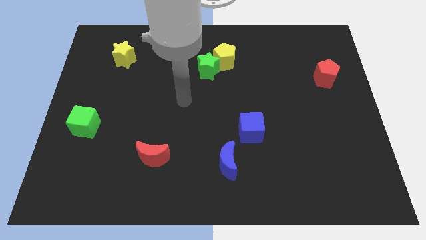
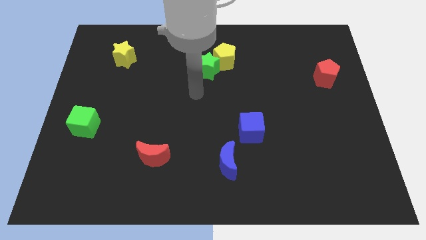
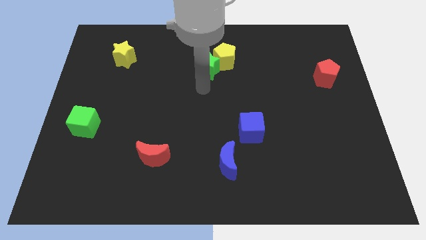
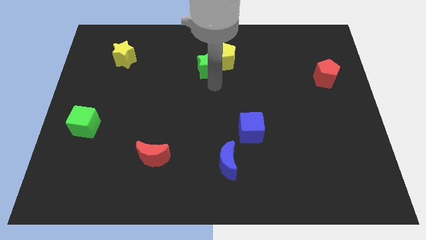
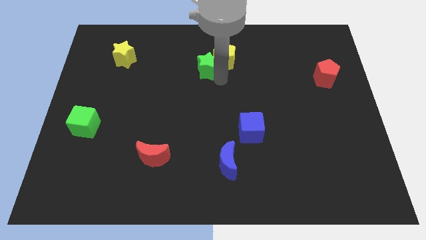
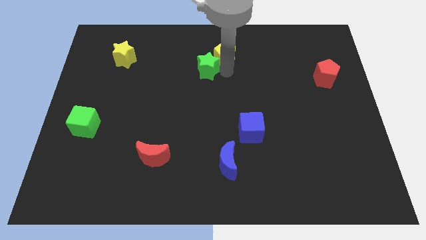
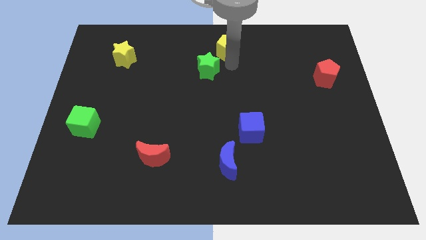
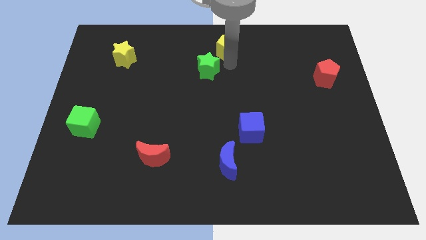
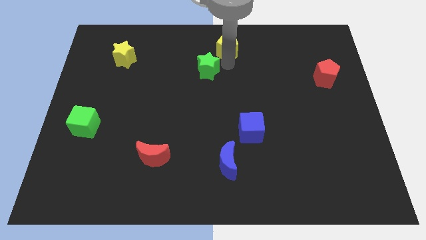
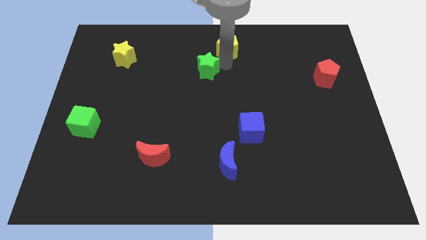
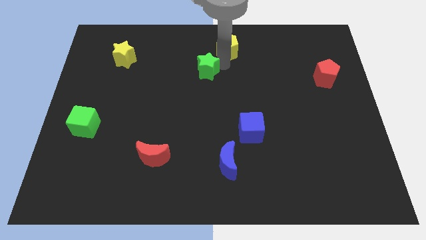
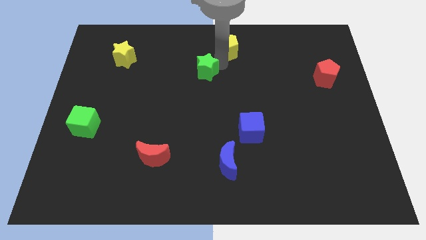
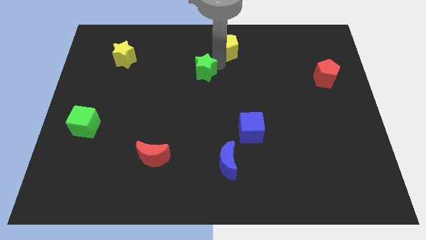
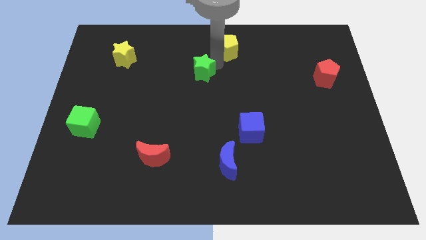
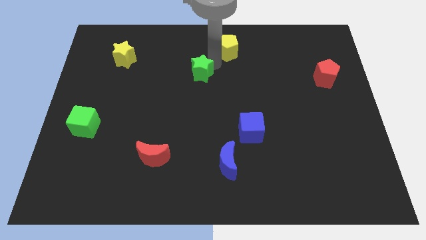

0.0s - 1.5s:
pull the green star apart from the yellow pentagon

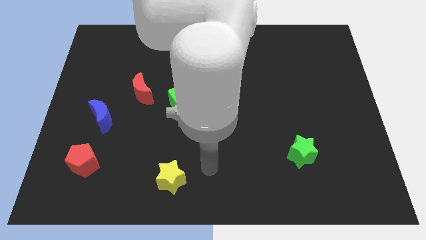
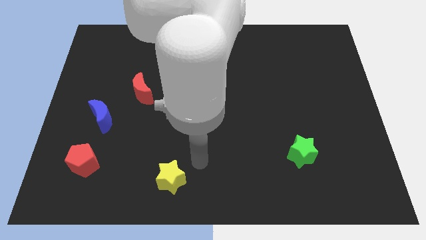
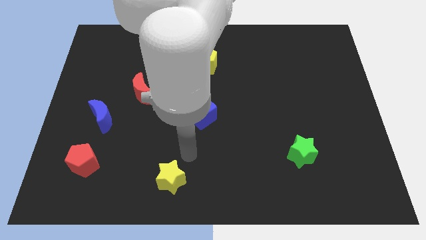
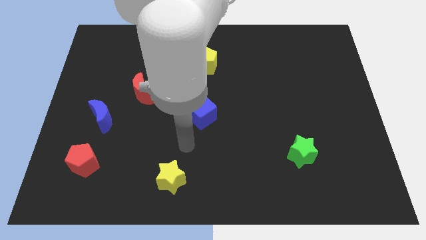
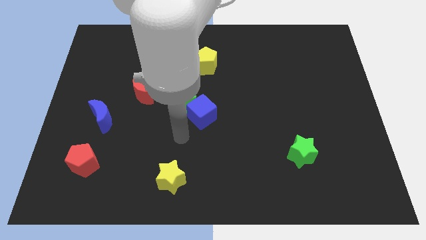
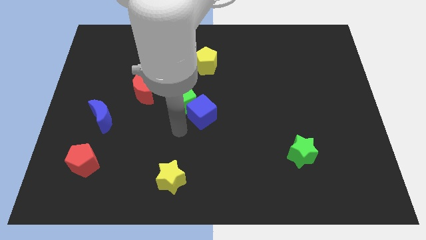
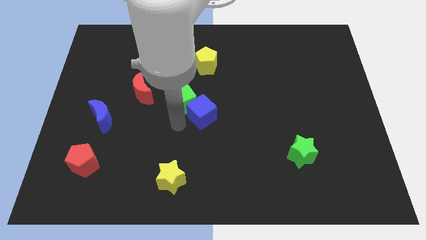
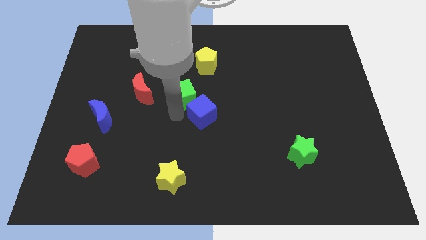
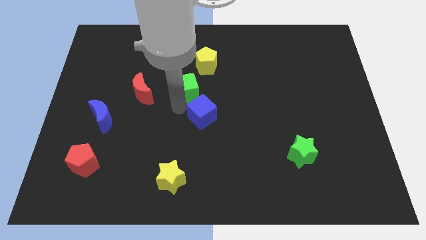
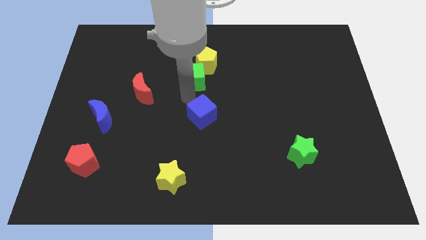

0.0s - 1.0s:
pull the blue cube apart from the green cube

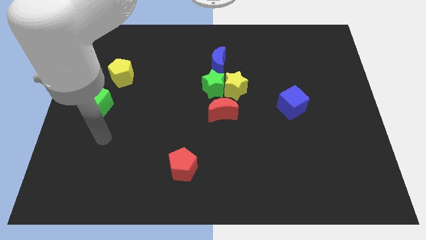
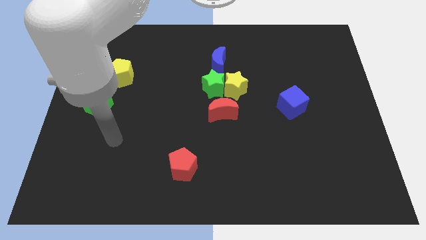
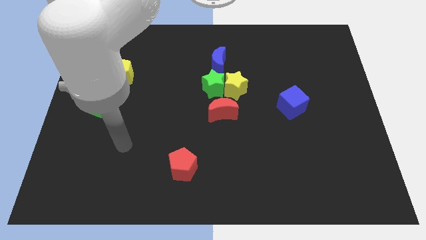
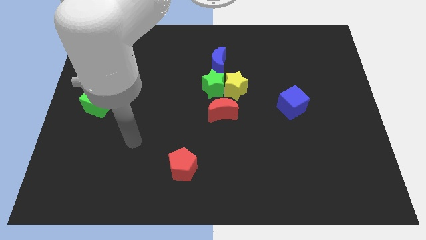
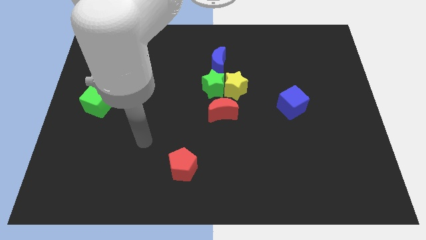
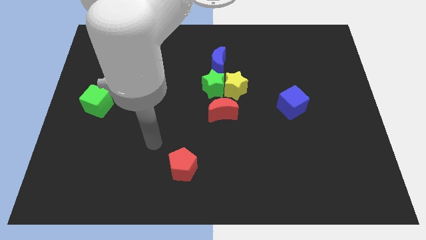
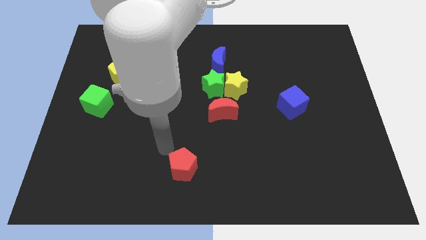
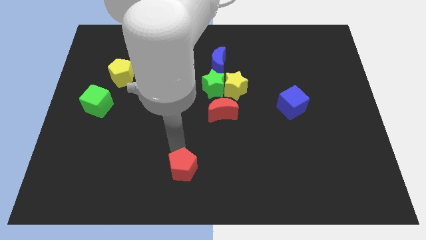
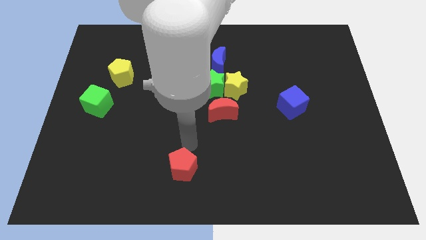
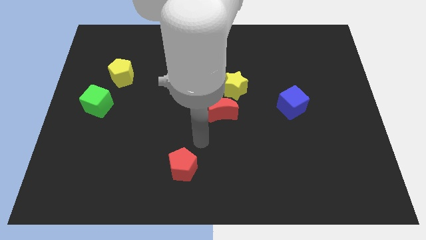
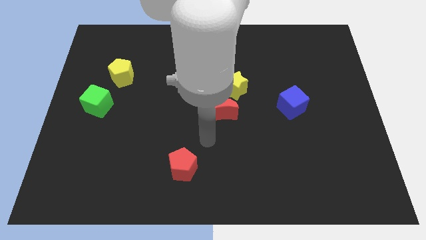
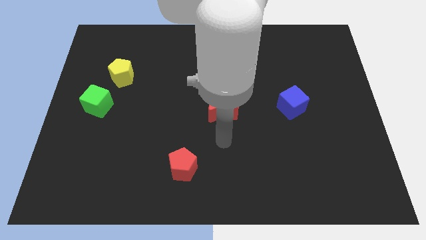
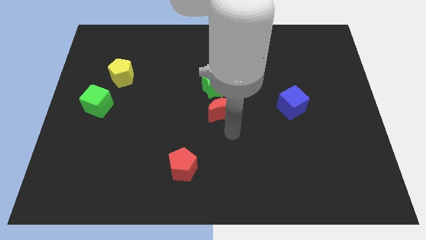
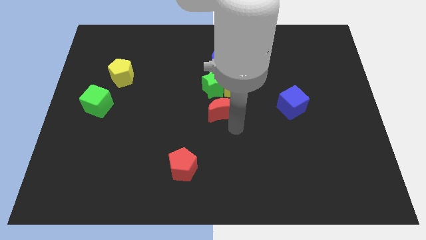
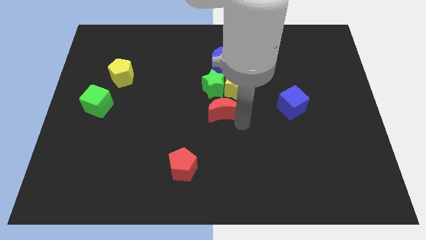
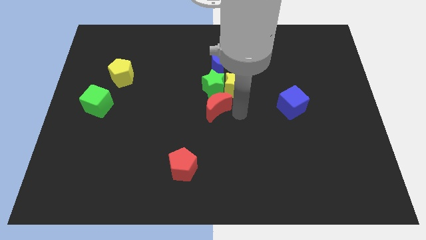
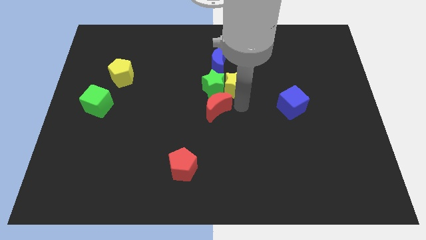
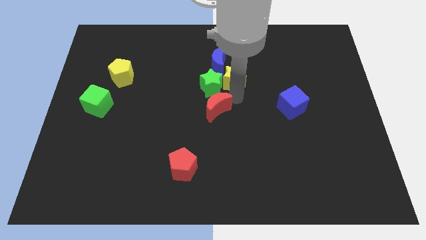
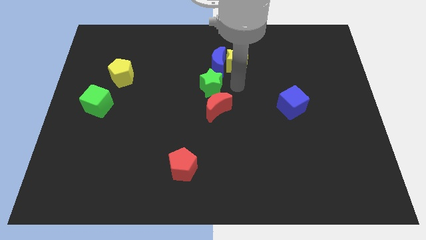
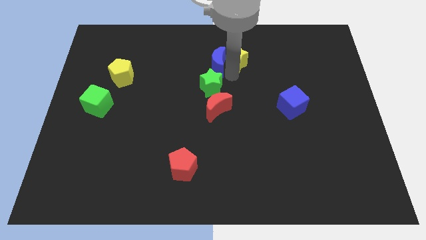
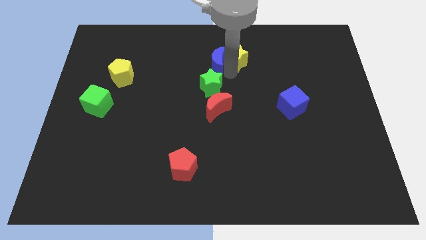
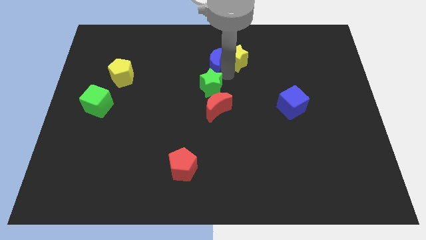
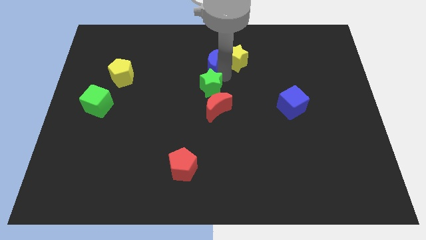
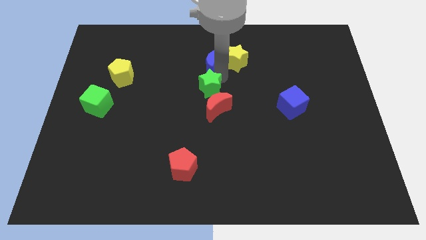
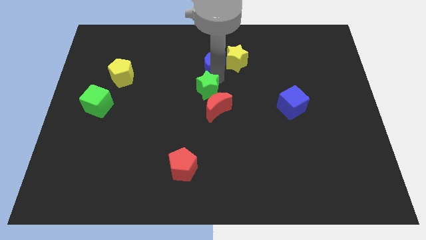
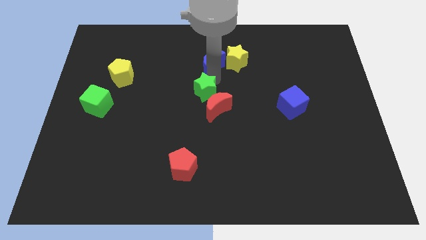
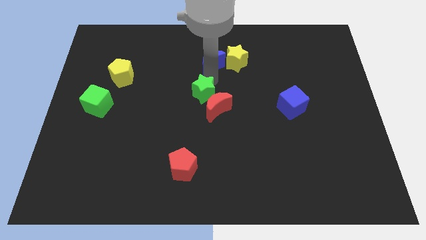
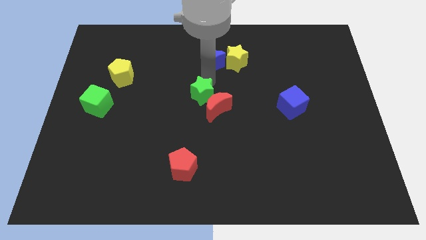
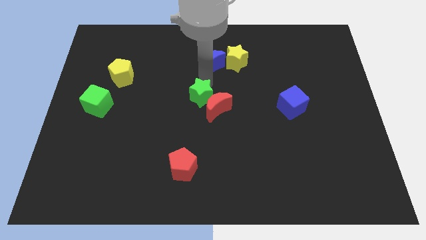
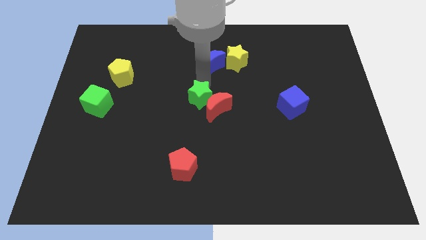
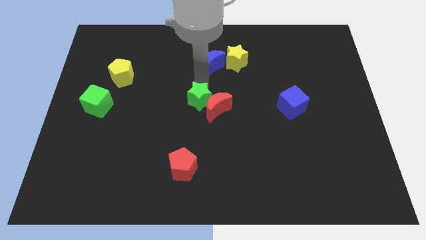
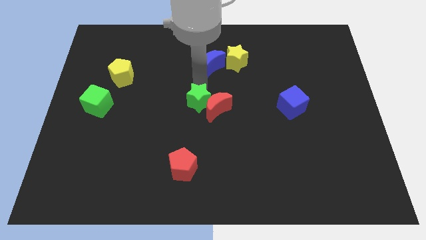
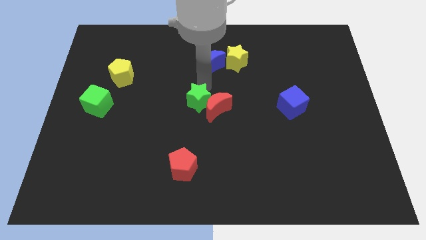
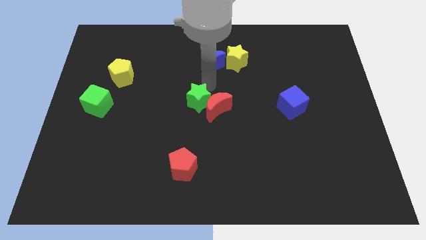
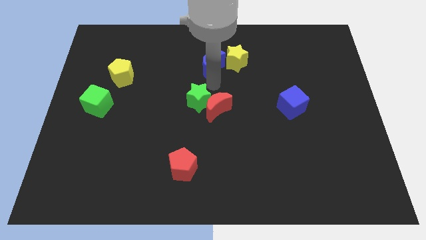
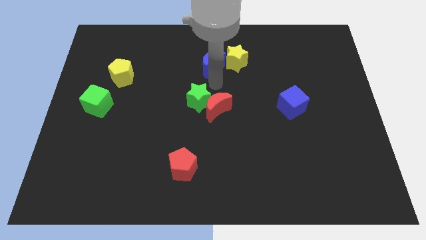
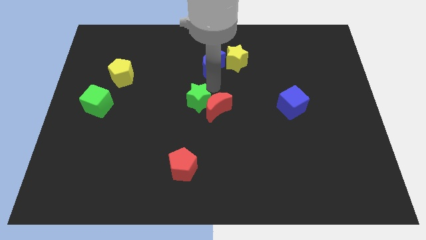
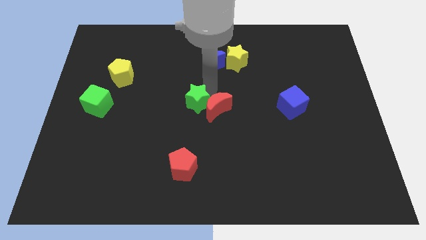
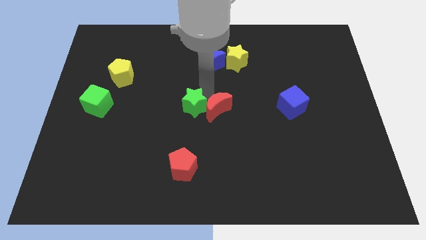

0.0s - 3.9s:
move the green star away from the yellow star, blue moon, and red moon

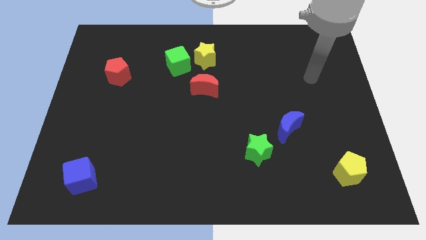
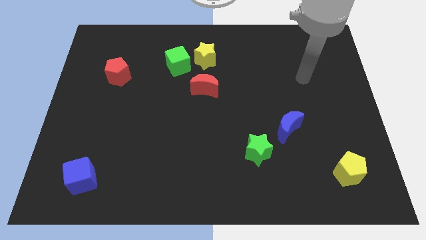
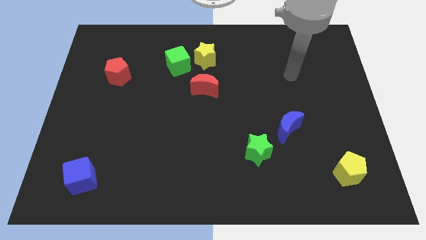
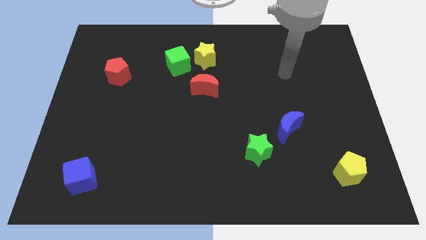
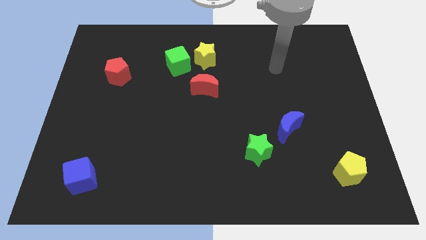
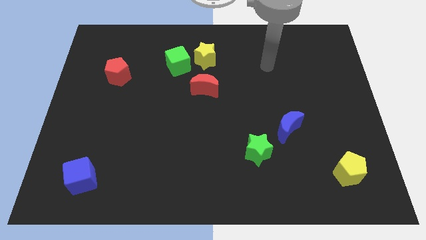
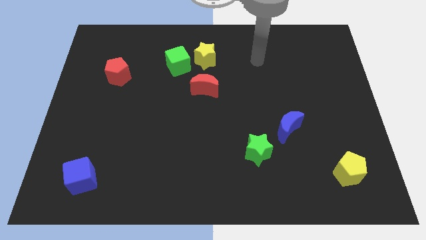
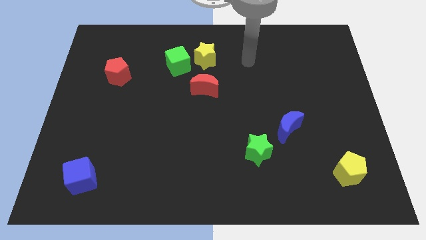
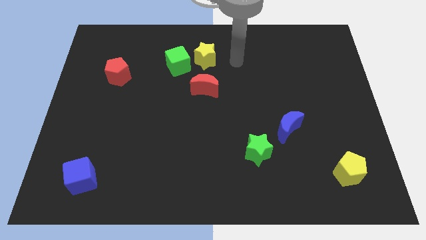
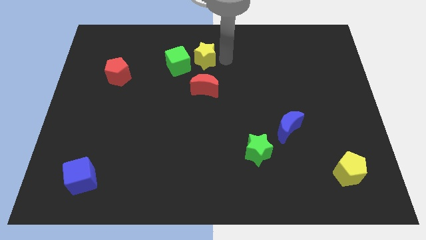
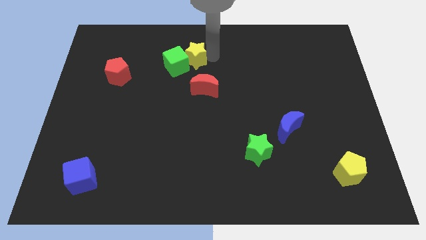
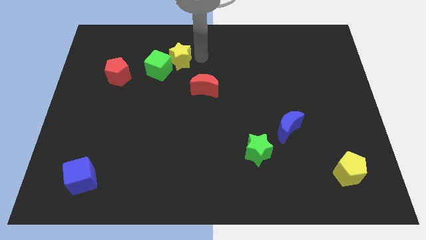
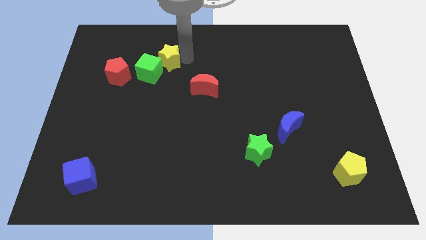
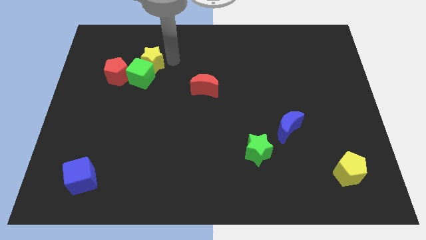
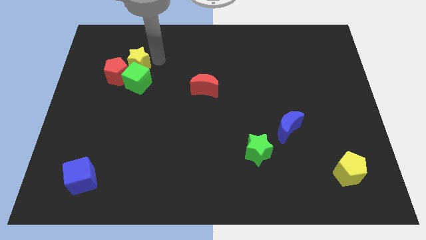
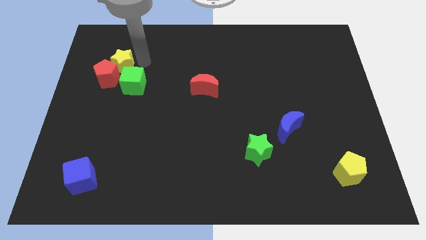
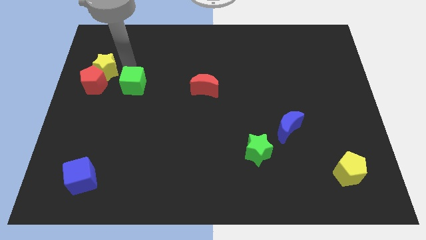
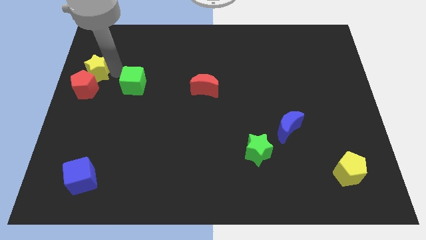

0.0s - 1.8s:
separate the green cube from the yellow star

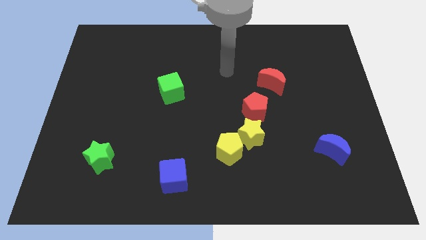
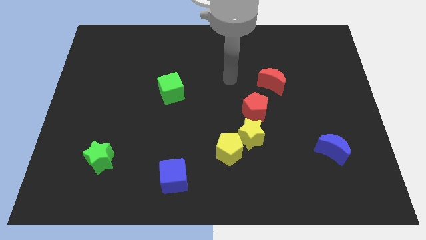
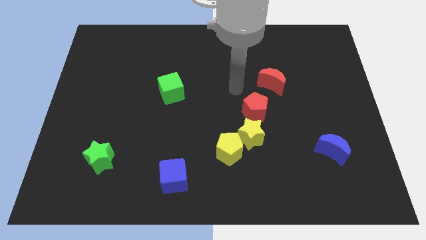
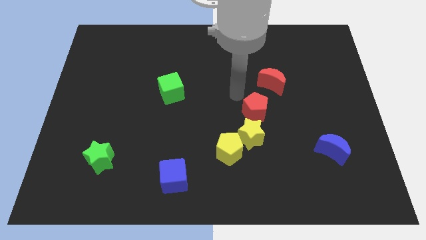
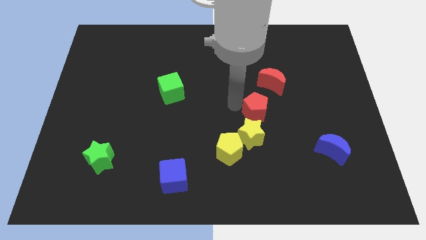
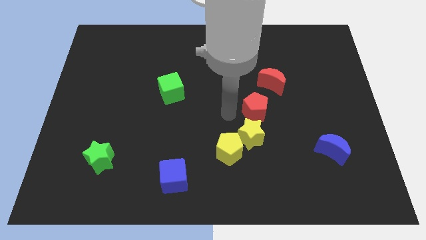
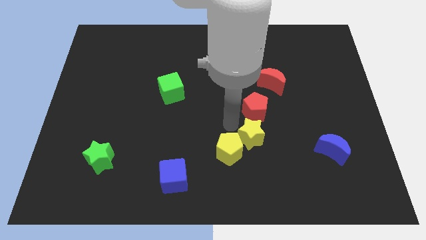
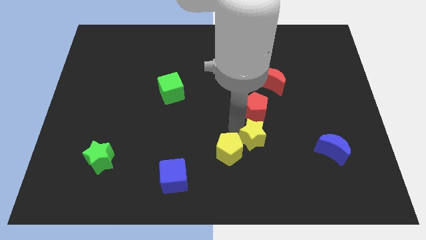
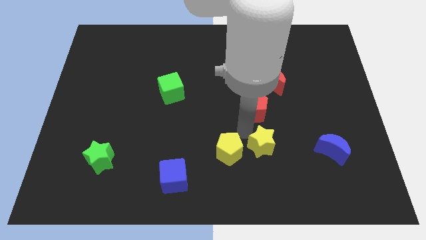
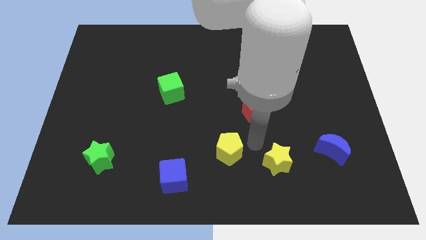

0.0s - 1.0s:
pull the yellow pentagon apart from the yellow star
